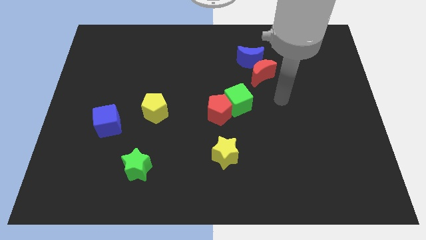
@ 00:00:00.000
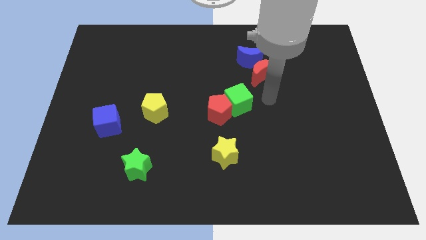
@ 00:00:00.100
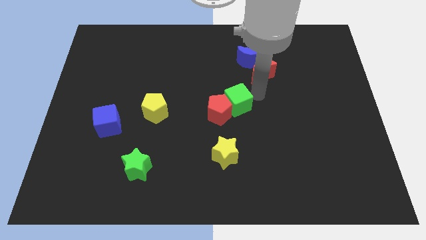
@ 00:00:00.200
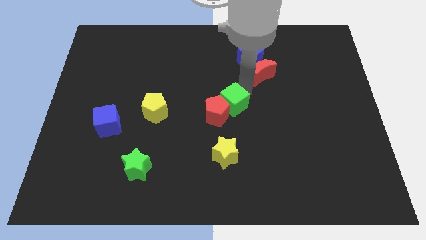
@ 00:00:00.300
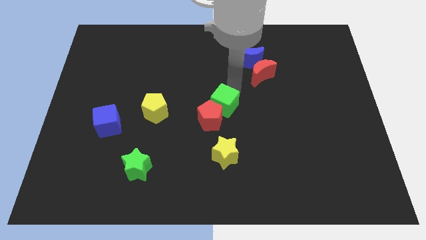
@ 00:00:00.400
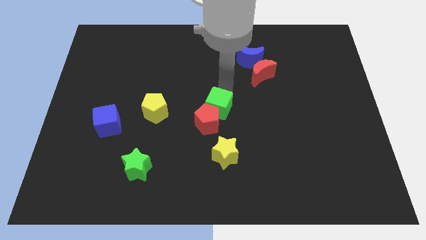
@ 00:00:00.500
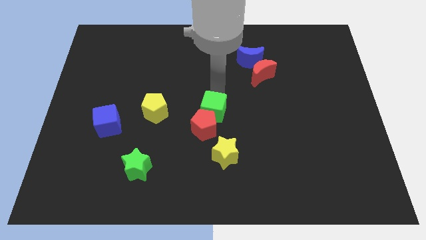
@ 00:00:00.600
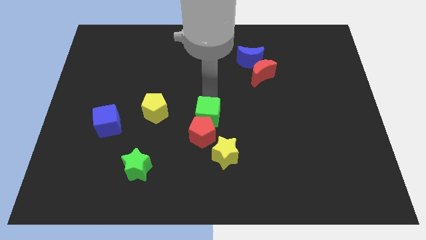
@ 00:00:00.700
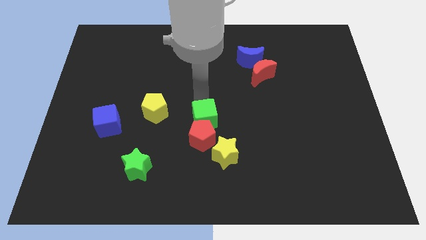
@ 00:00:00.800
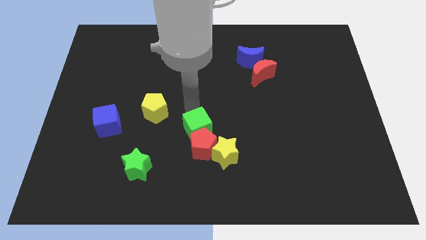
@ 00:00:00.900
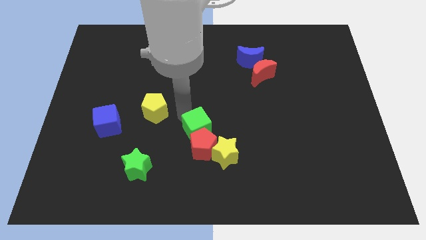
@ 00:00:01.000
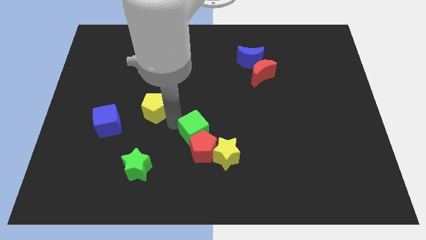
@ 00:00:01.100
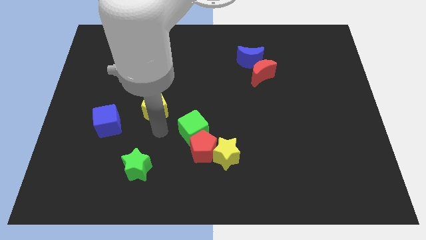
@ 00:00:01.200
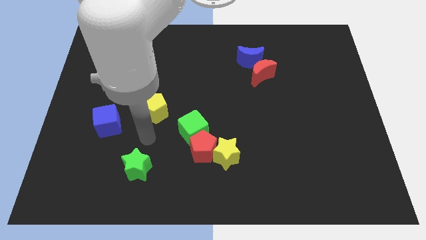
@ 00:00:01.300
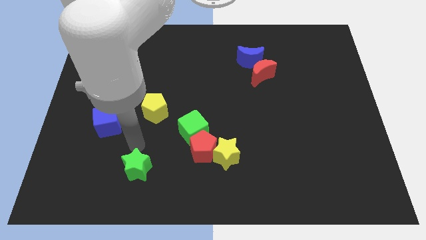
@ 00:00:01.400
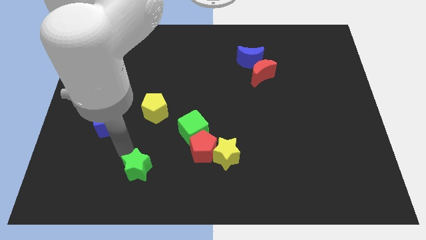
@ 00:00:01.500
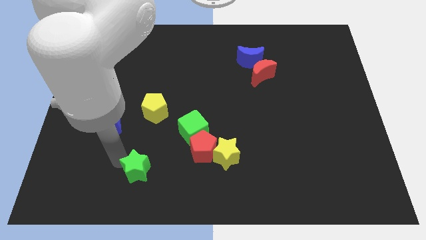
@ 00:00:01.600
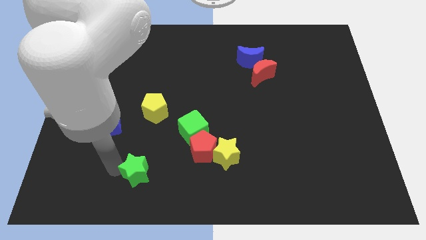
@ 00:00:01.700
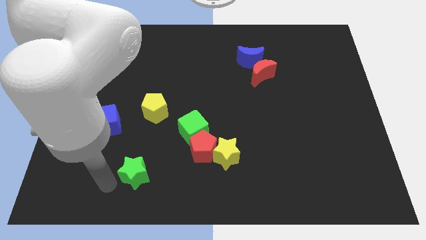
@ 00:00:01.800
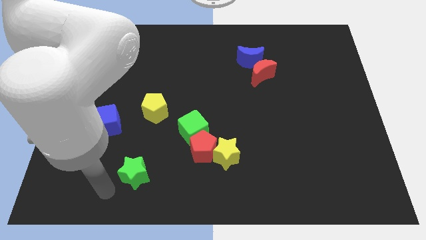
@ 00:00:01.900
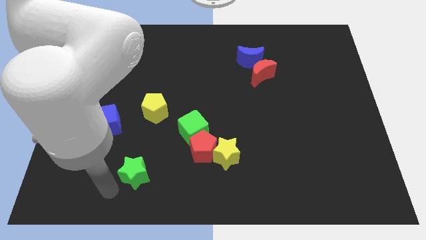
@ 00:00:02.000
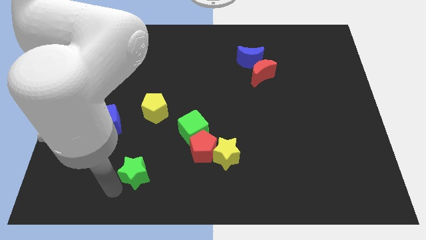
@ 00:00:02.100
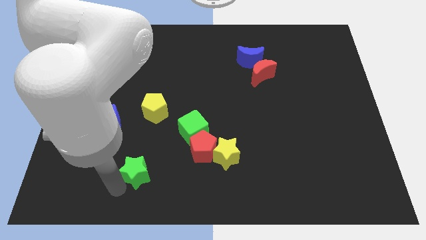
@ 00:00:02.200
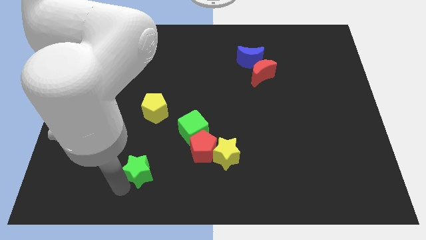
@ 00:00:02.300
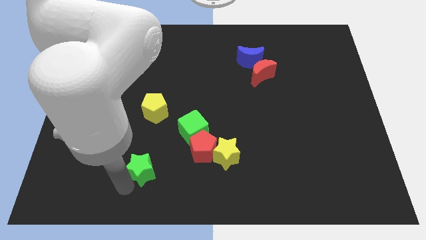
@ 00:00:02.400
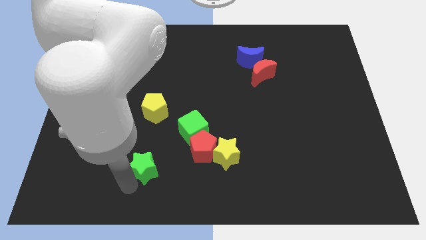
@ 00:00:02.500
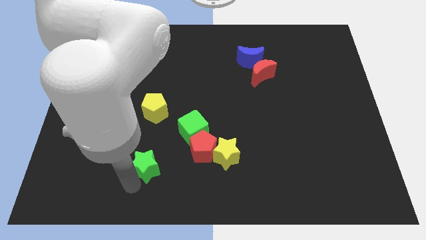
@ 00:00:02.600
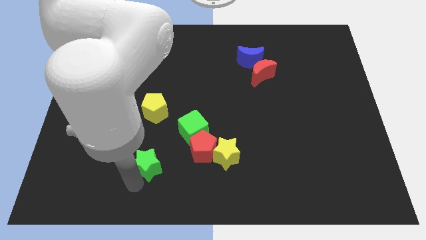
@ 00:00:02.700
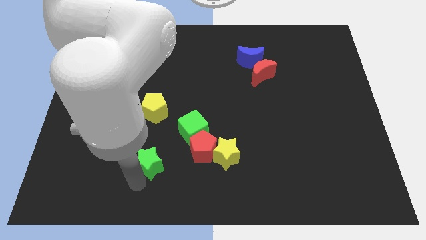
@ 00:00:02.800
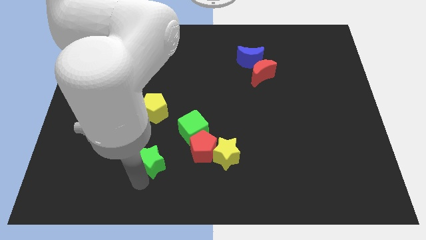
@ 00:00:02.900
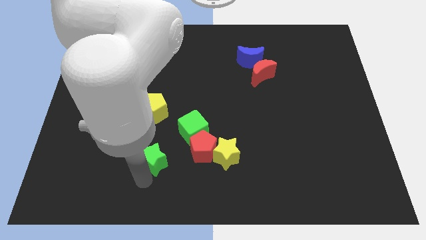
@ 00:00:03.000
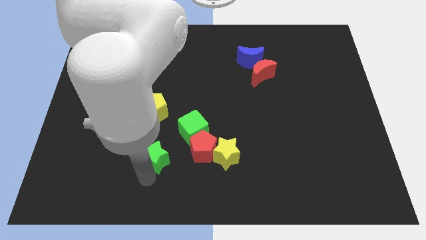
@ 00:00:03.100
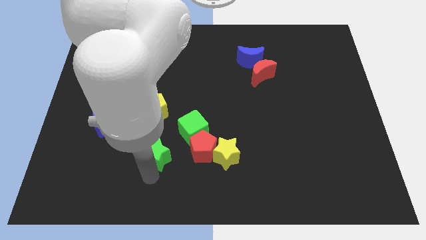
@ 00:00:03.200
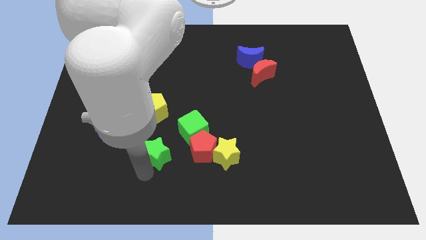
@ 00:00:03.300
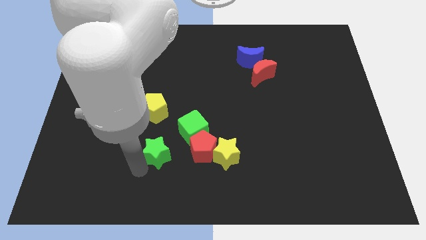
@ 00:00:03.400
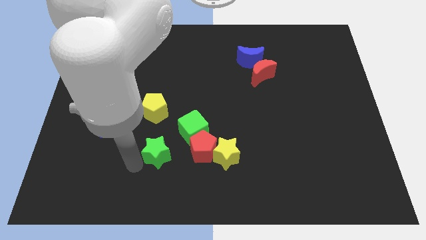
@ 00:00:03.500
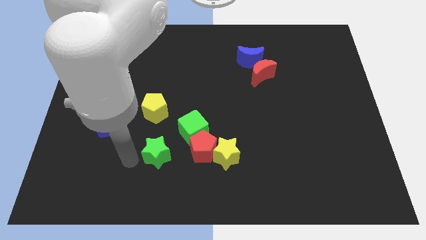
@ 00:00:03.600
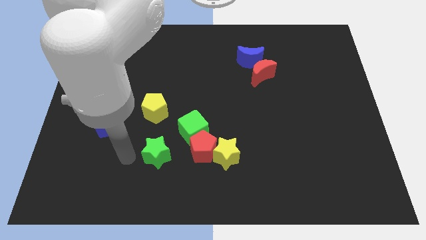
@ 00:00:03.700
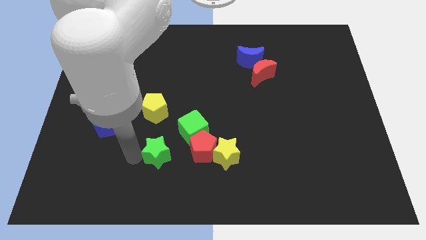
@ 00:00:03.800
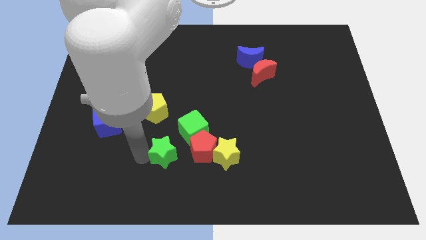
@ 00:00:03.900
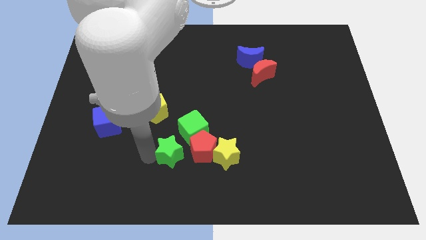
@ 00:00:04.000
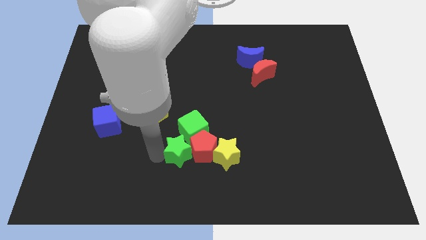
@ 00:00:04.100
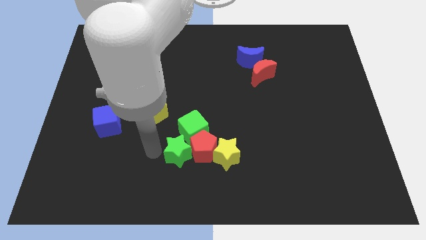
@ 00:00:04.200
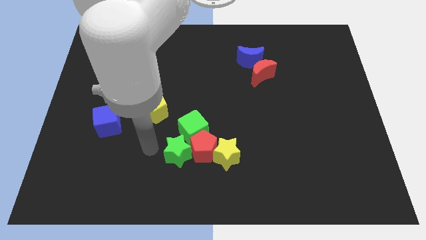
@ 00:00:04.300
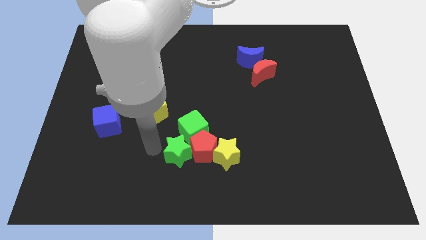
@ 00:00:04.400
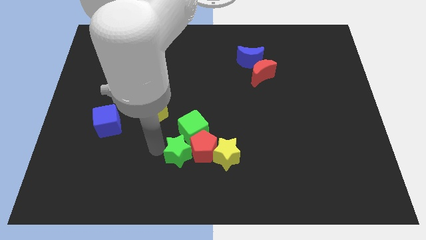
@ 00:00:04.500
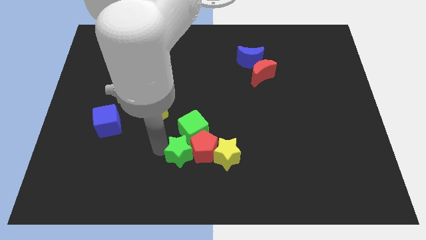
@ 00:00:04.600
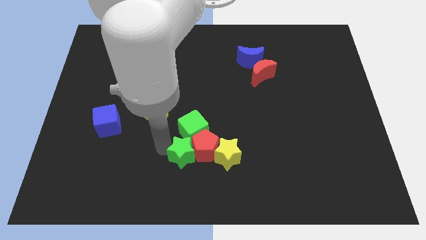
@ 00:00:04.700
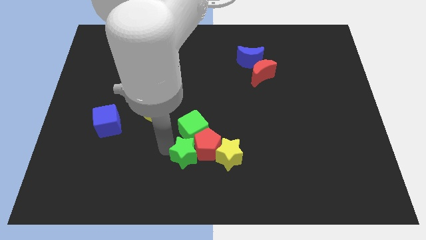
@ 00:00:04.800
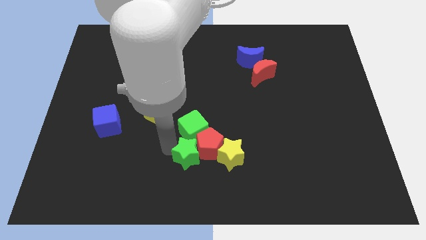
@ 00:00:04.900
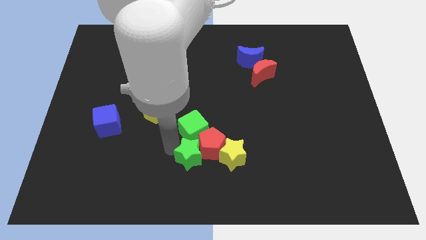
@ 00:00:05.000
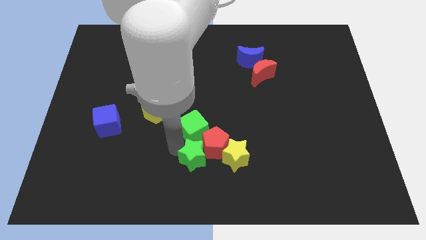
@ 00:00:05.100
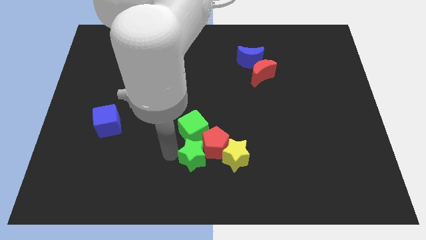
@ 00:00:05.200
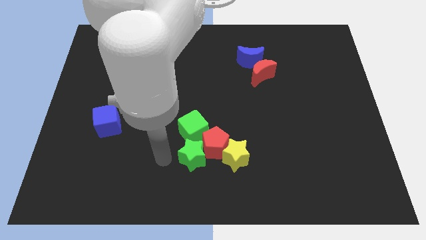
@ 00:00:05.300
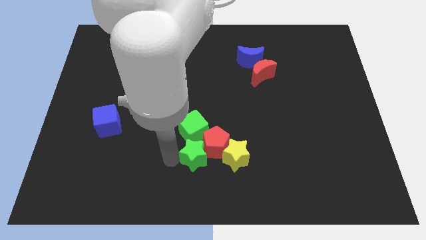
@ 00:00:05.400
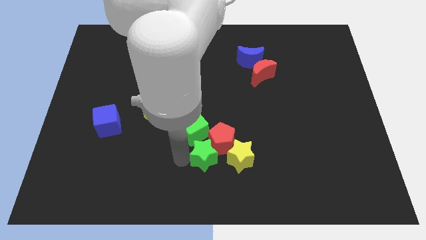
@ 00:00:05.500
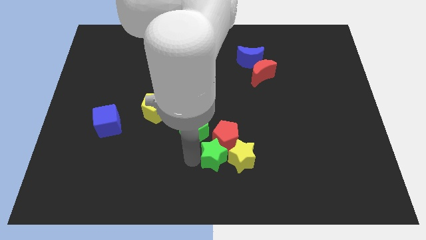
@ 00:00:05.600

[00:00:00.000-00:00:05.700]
put the green star towards the yellow star

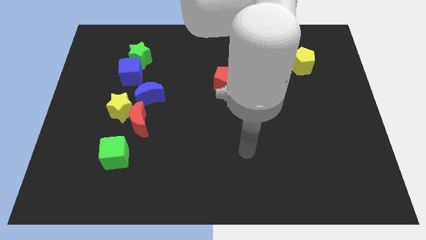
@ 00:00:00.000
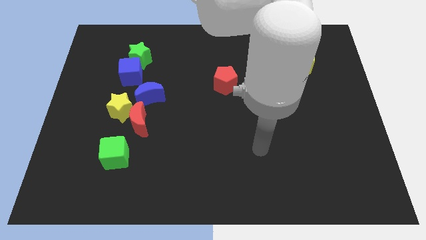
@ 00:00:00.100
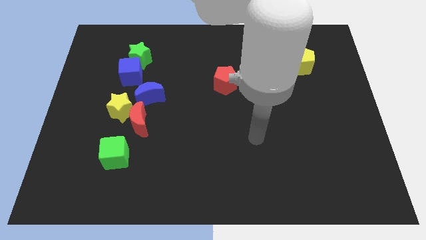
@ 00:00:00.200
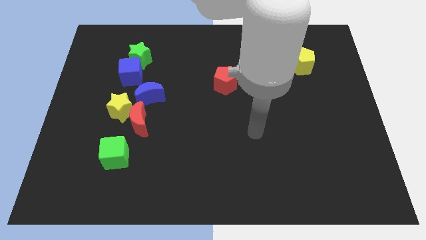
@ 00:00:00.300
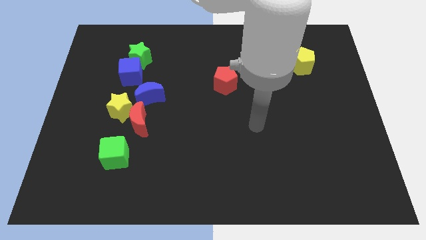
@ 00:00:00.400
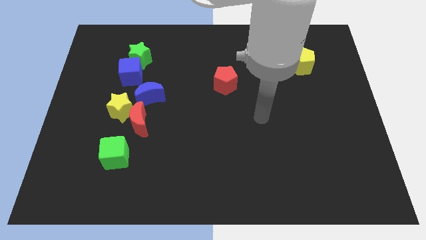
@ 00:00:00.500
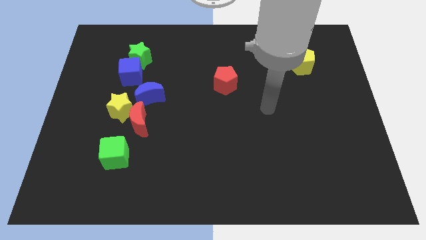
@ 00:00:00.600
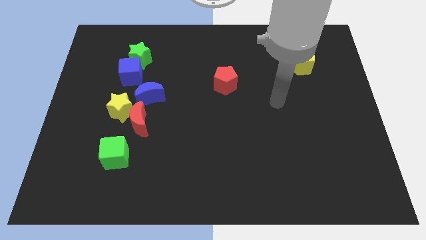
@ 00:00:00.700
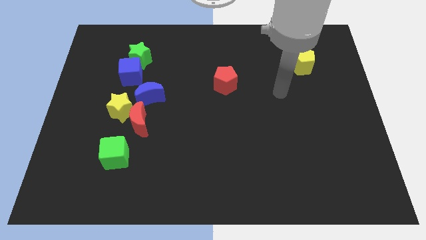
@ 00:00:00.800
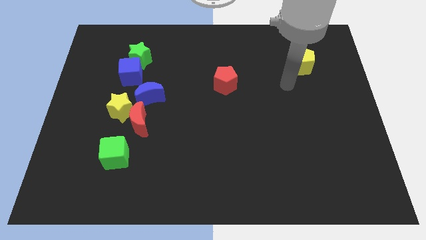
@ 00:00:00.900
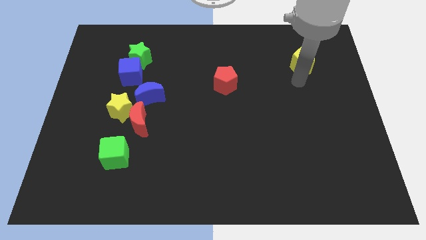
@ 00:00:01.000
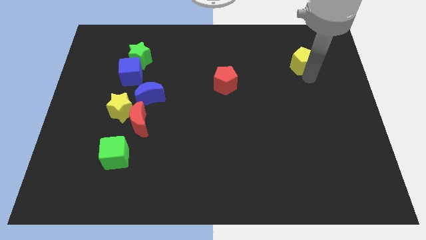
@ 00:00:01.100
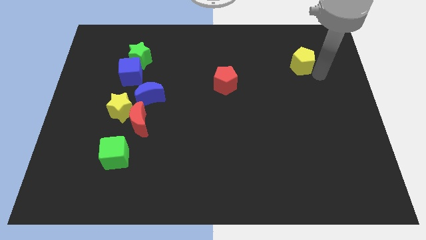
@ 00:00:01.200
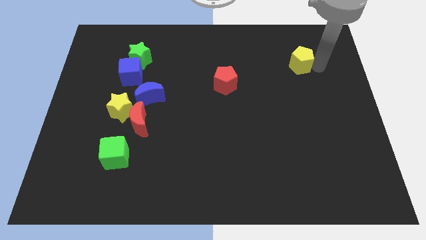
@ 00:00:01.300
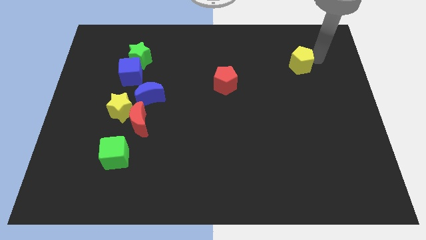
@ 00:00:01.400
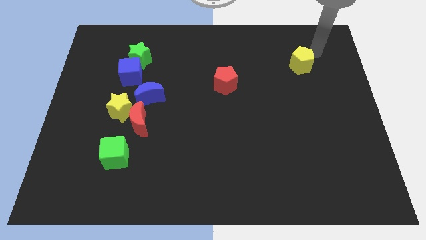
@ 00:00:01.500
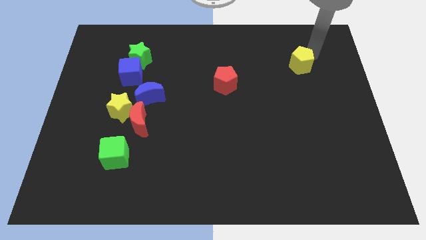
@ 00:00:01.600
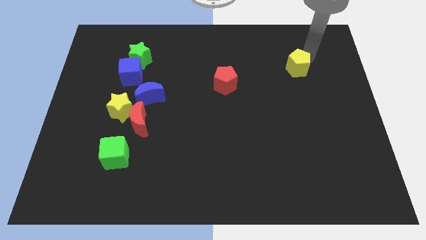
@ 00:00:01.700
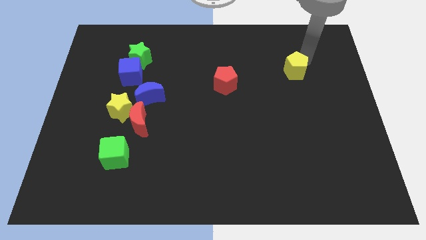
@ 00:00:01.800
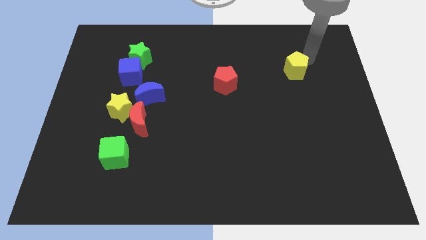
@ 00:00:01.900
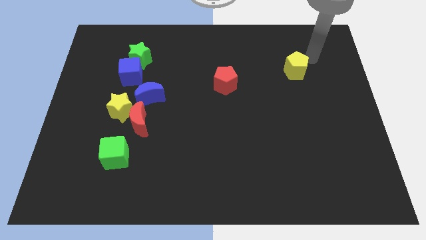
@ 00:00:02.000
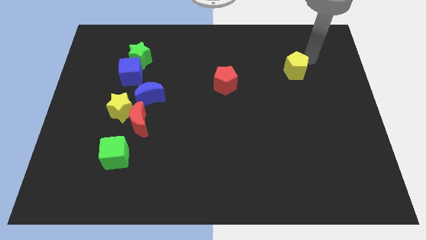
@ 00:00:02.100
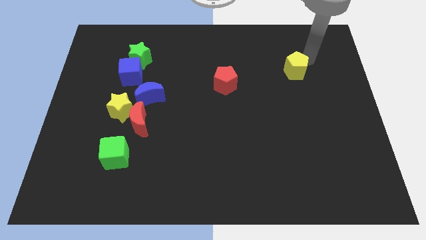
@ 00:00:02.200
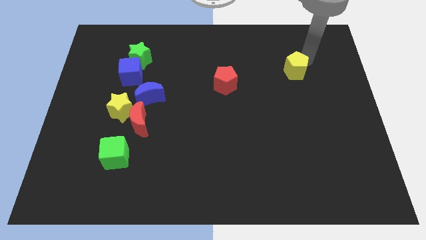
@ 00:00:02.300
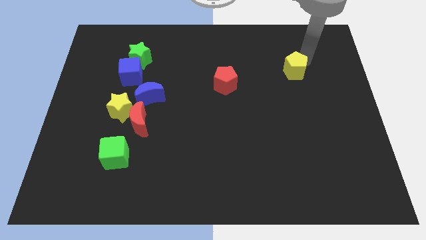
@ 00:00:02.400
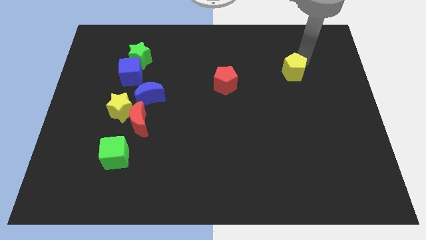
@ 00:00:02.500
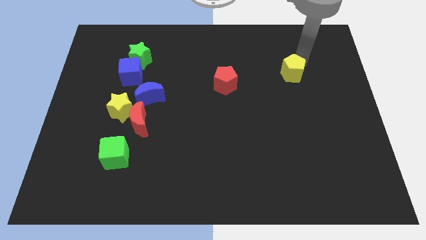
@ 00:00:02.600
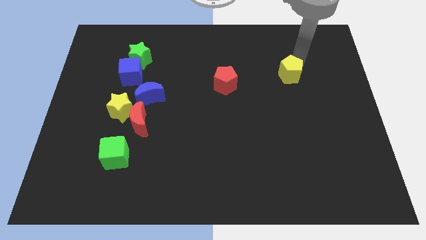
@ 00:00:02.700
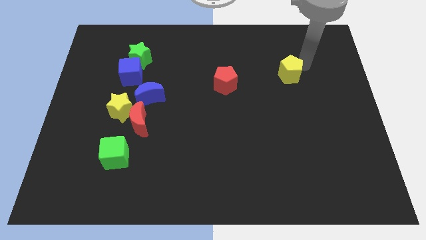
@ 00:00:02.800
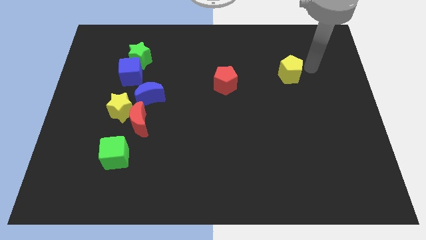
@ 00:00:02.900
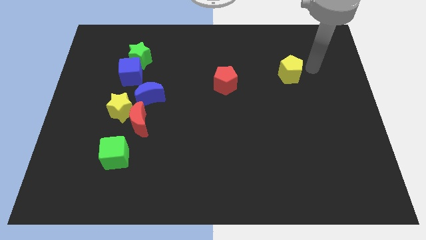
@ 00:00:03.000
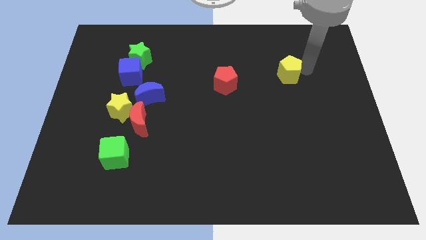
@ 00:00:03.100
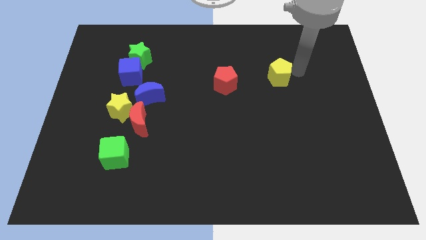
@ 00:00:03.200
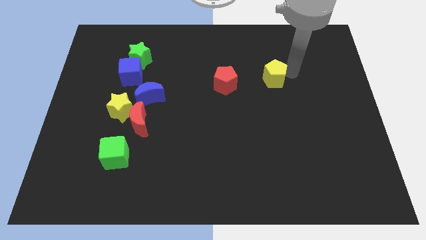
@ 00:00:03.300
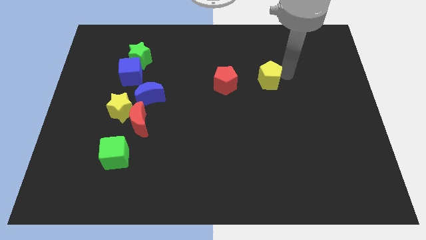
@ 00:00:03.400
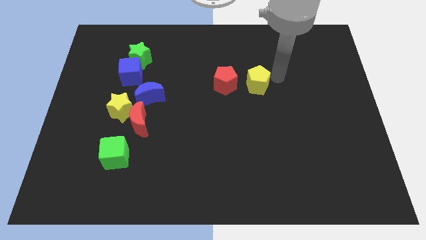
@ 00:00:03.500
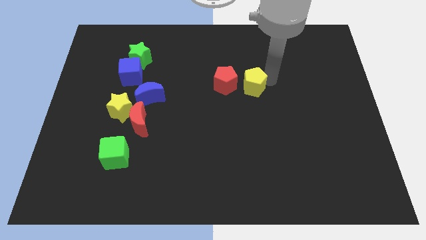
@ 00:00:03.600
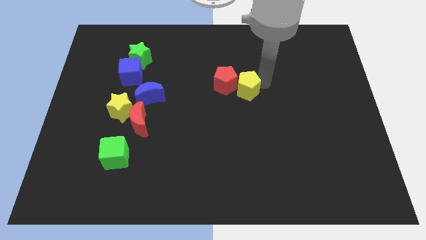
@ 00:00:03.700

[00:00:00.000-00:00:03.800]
move the yellow pentagon to the red pentagon
